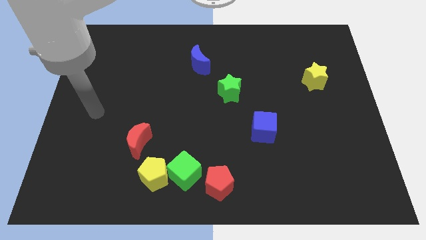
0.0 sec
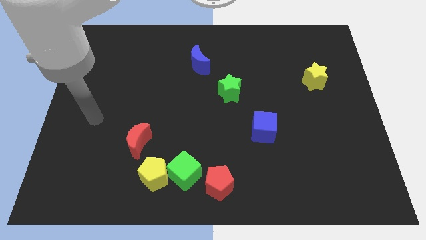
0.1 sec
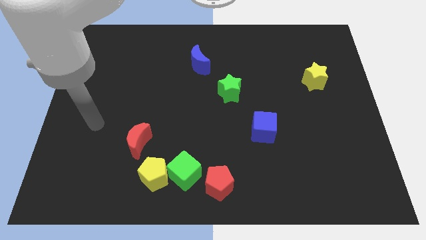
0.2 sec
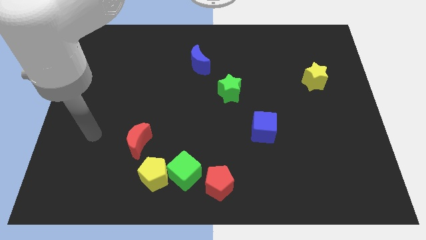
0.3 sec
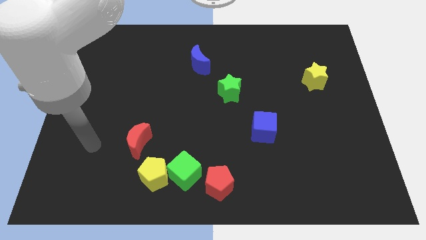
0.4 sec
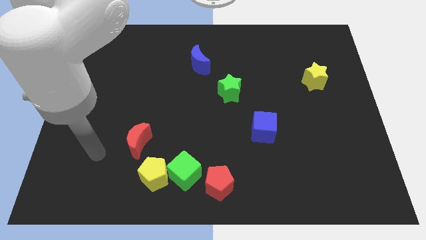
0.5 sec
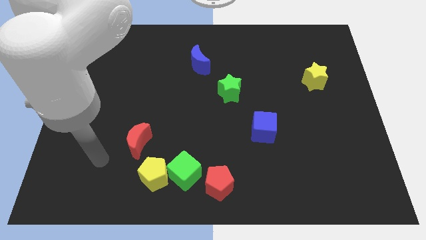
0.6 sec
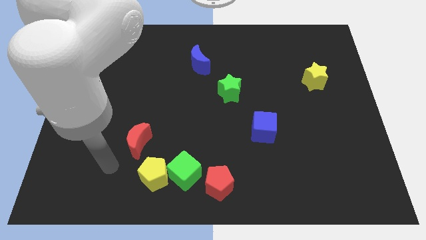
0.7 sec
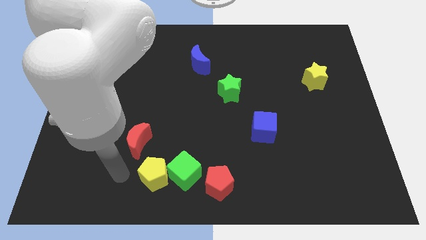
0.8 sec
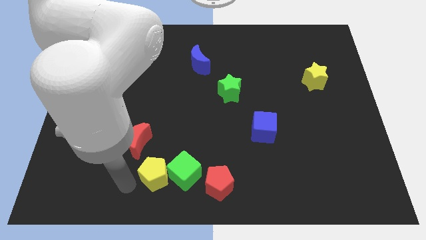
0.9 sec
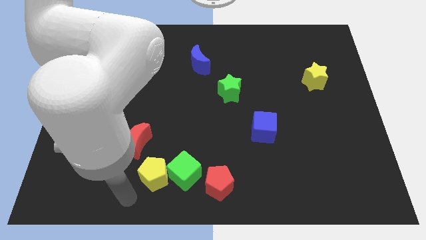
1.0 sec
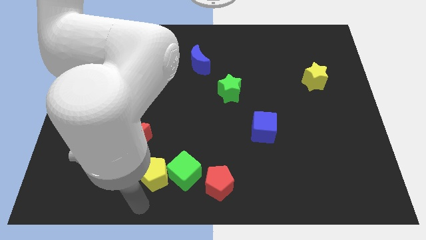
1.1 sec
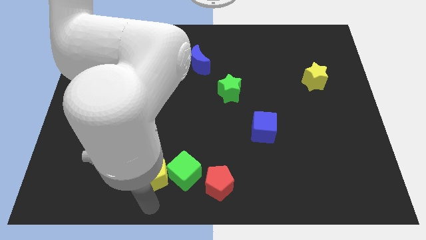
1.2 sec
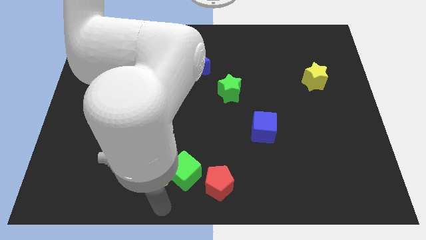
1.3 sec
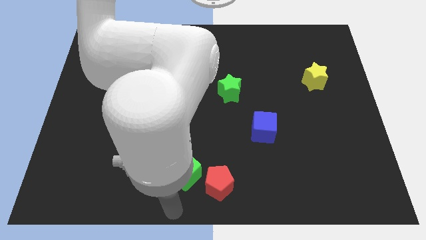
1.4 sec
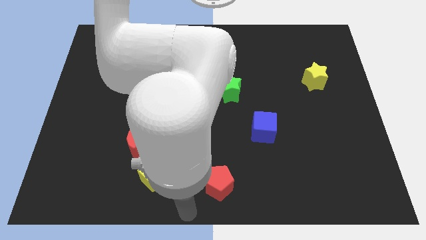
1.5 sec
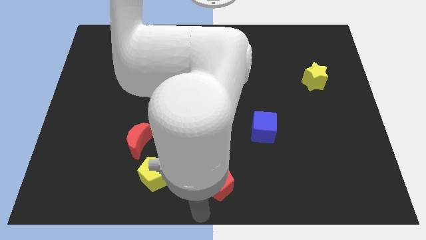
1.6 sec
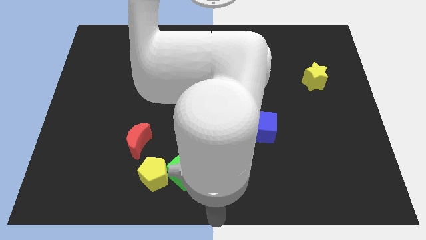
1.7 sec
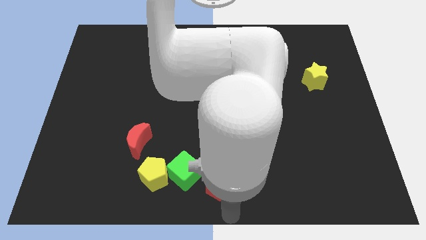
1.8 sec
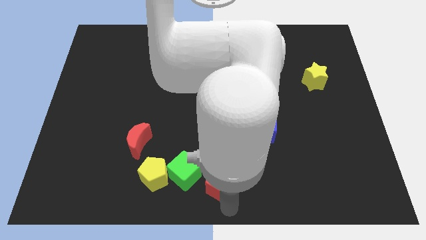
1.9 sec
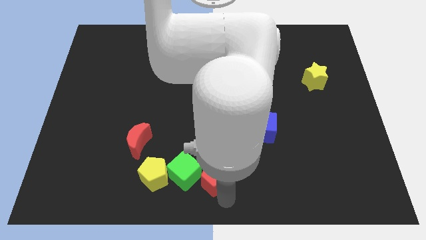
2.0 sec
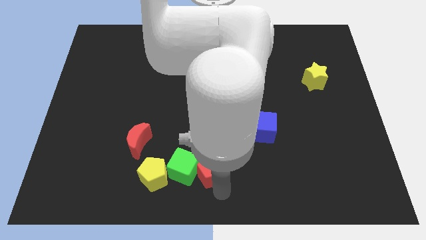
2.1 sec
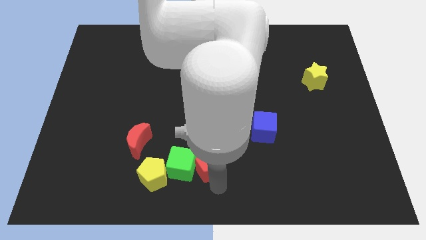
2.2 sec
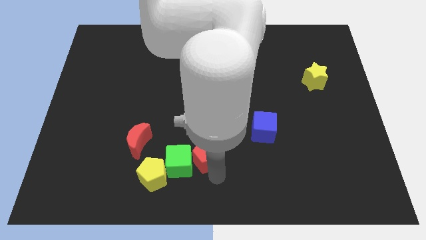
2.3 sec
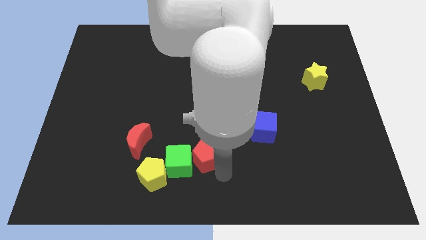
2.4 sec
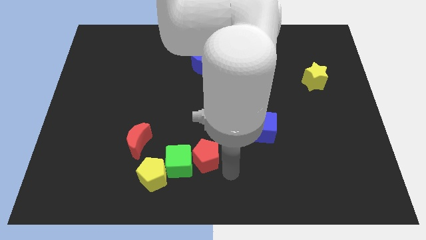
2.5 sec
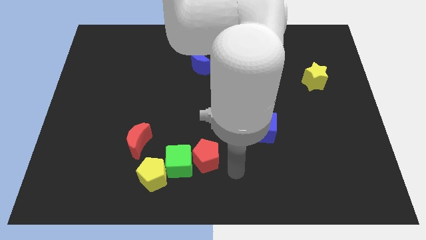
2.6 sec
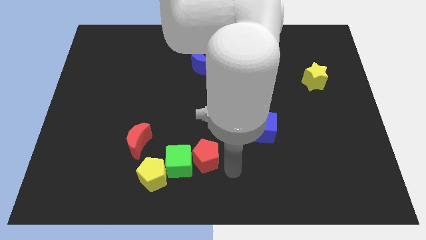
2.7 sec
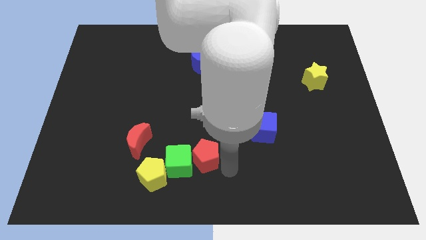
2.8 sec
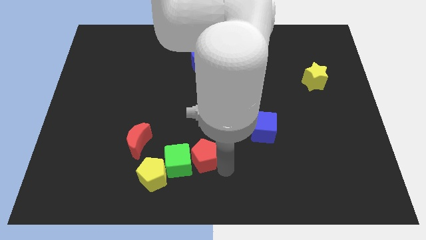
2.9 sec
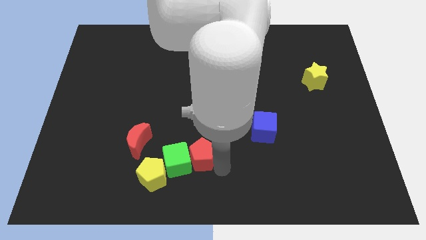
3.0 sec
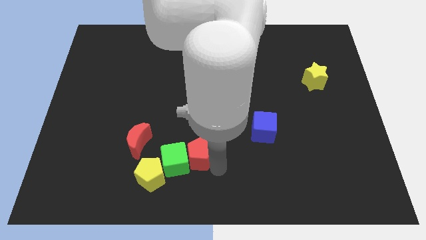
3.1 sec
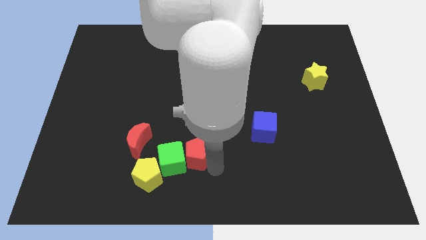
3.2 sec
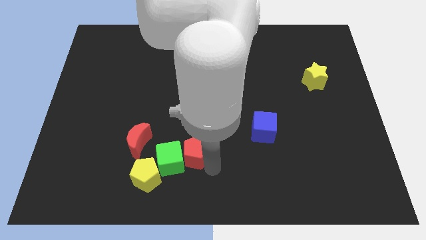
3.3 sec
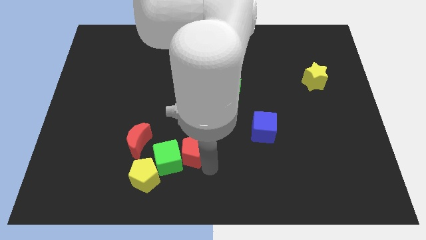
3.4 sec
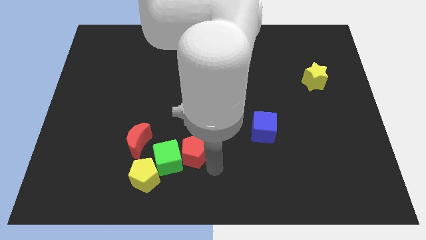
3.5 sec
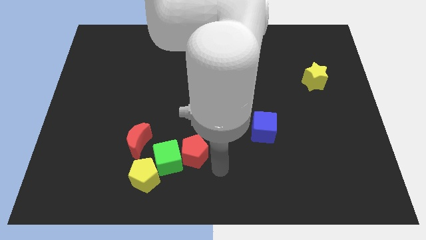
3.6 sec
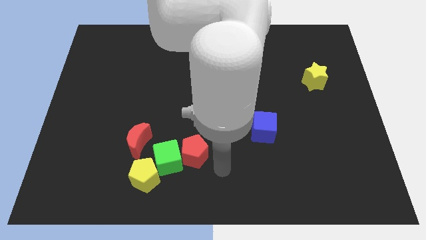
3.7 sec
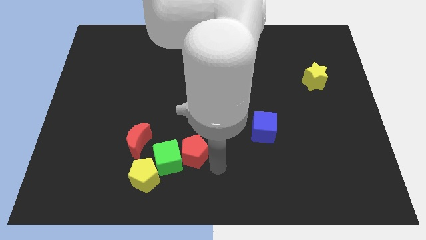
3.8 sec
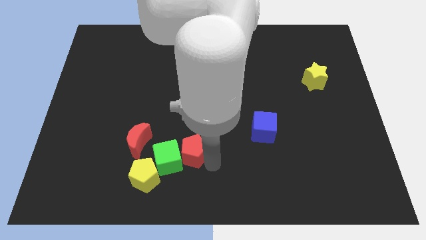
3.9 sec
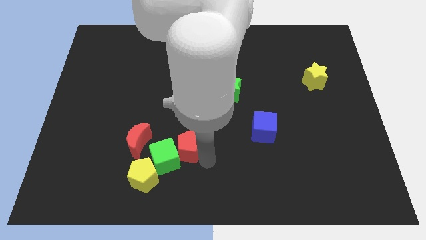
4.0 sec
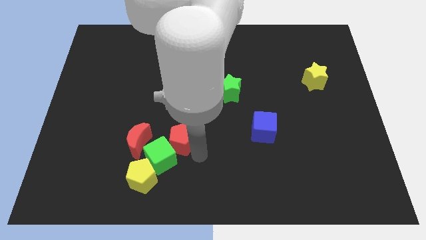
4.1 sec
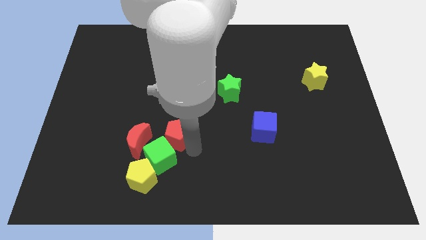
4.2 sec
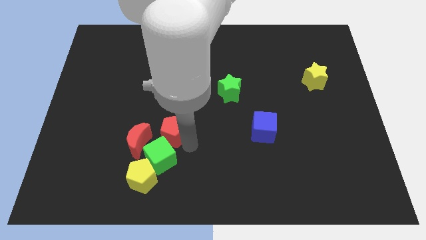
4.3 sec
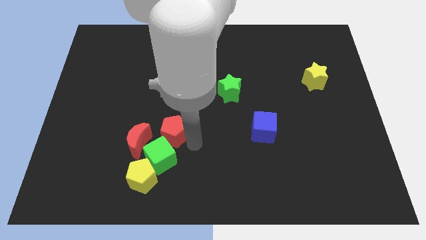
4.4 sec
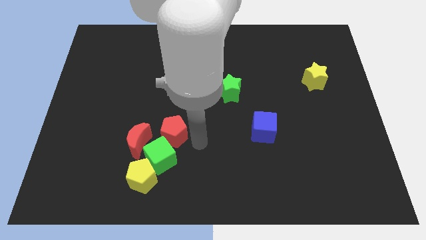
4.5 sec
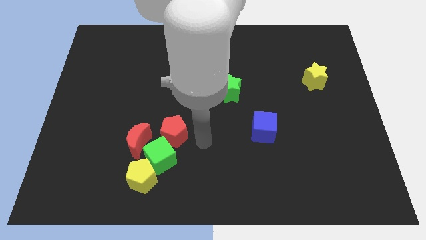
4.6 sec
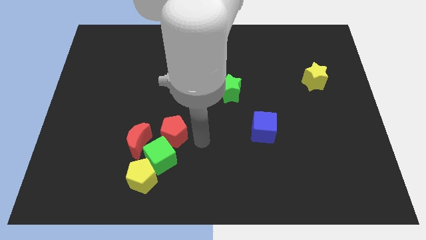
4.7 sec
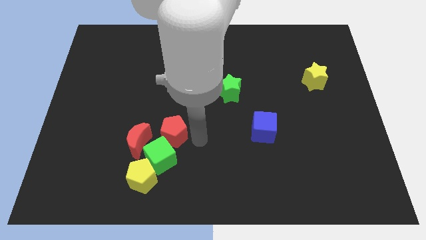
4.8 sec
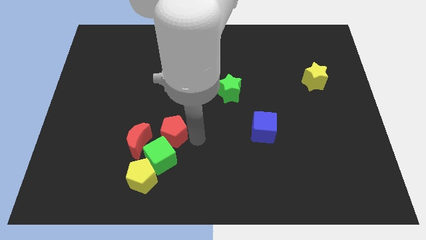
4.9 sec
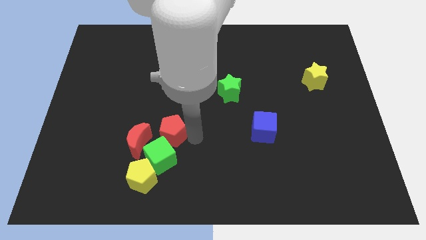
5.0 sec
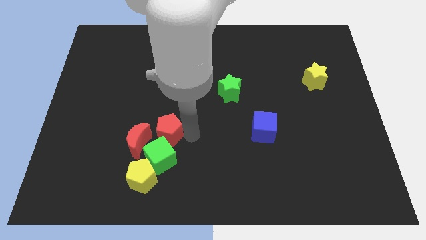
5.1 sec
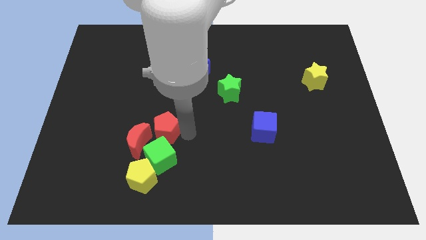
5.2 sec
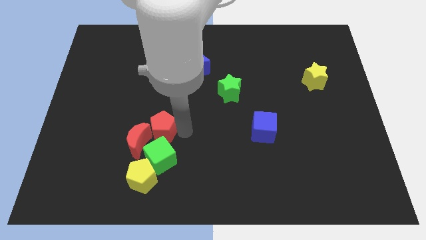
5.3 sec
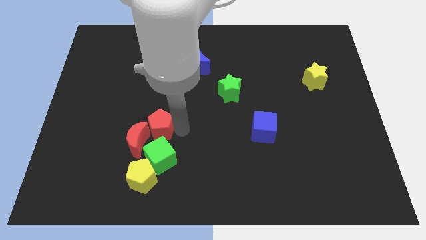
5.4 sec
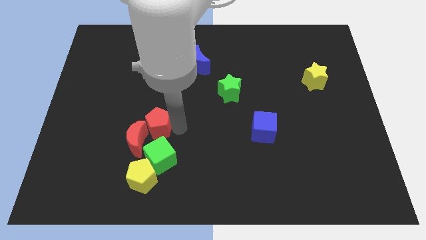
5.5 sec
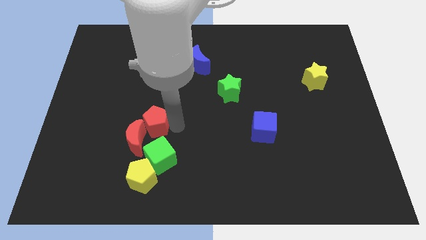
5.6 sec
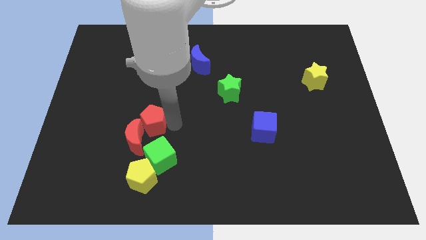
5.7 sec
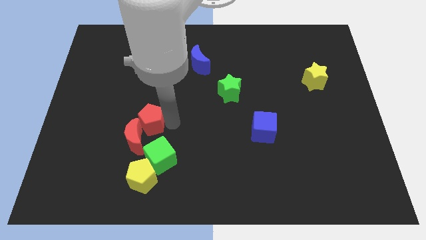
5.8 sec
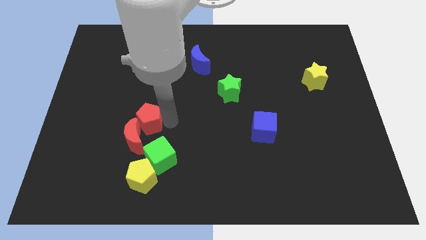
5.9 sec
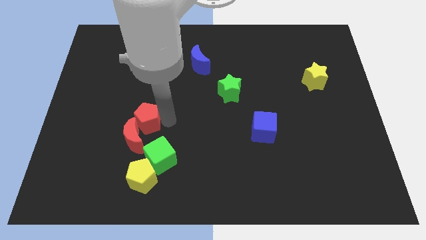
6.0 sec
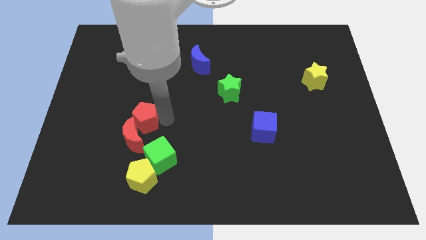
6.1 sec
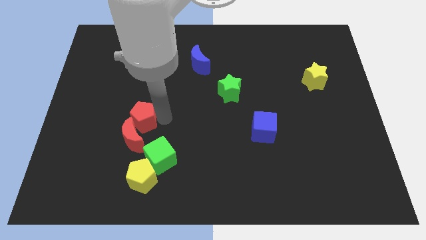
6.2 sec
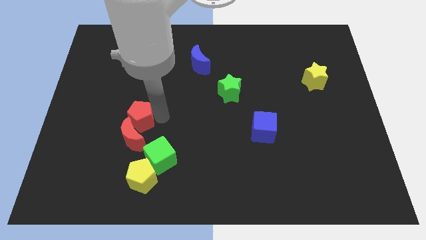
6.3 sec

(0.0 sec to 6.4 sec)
move the red pentagon diagonally up and to the left of the red moon
